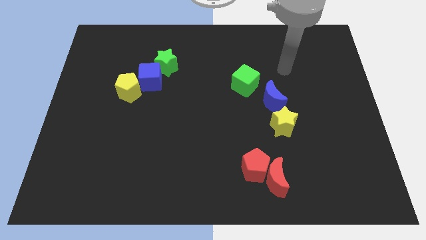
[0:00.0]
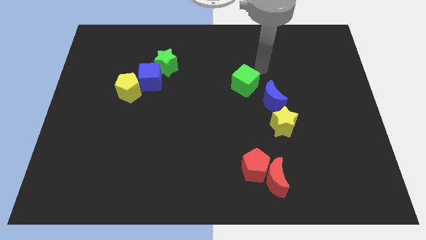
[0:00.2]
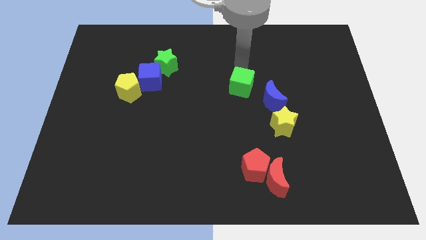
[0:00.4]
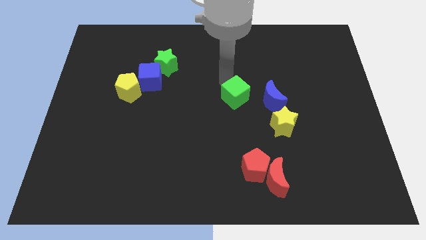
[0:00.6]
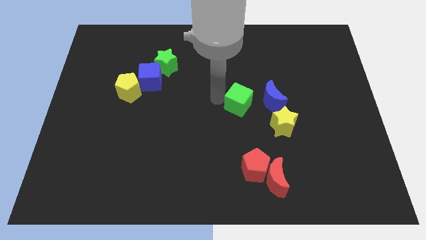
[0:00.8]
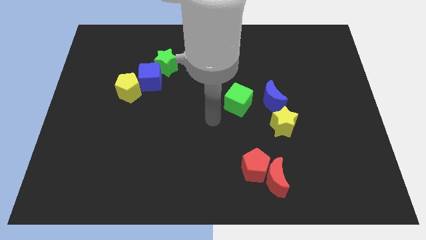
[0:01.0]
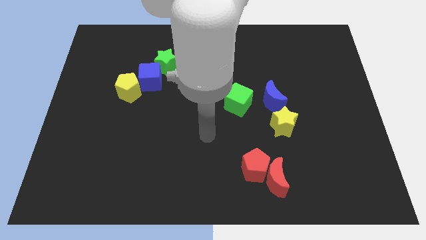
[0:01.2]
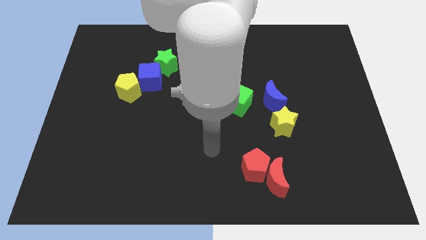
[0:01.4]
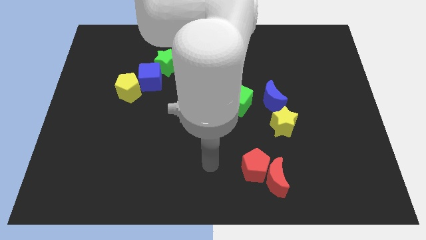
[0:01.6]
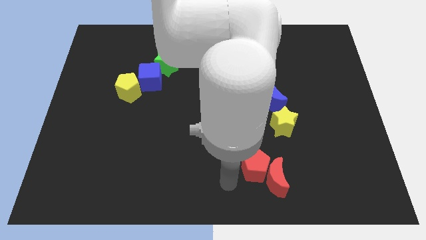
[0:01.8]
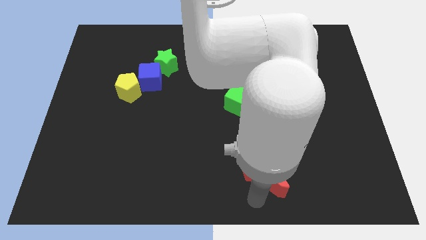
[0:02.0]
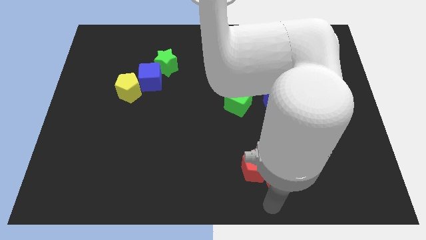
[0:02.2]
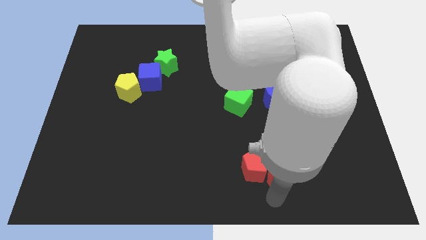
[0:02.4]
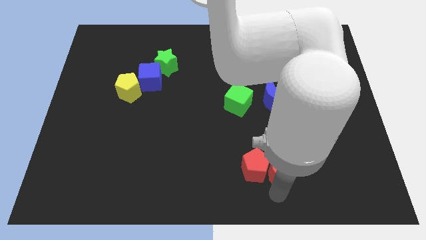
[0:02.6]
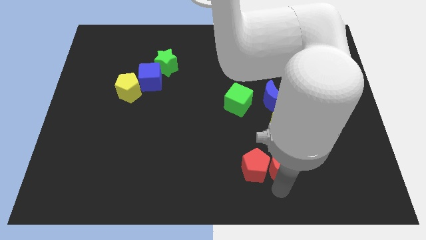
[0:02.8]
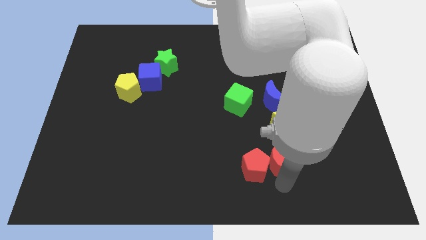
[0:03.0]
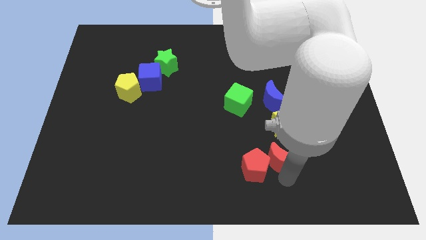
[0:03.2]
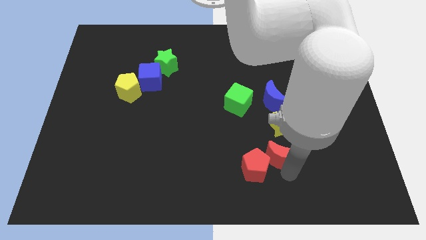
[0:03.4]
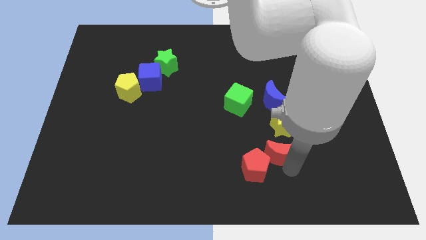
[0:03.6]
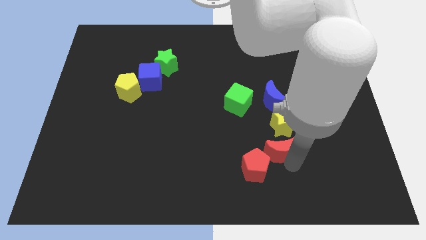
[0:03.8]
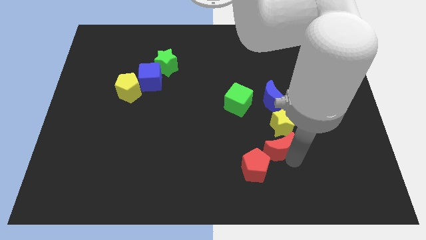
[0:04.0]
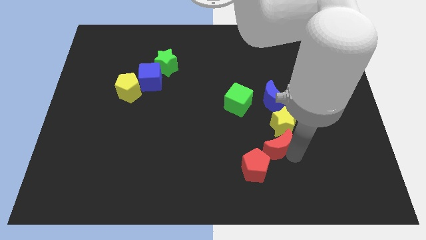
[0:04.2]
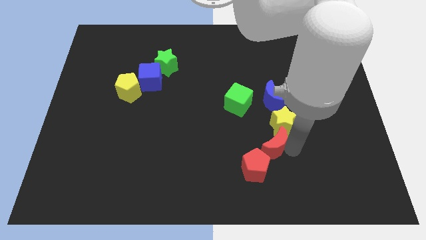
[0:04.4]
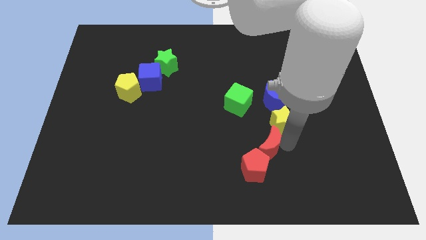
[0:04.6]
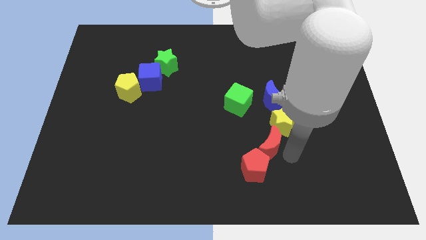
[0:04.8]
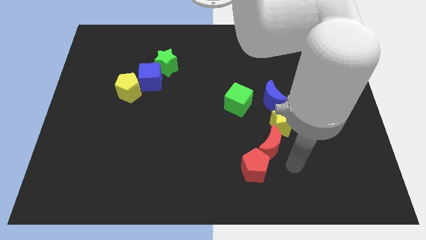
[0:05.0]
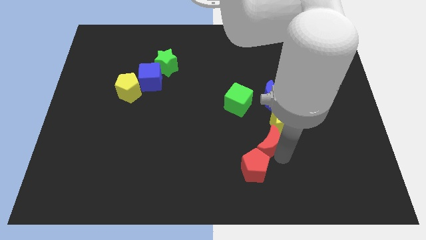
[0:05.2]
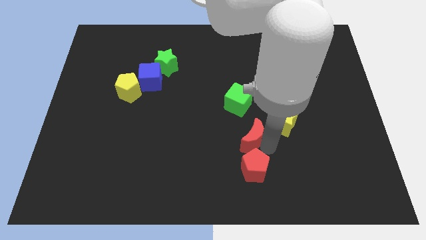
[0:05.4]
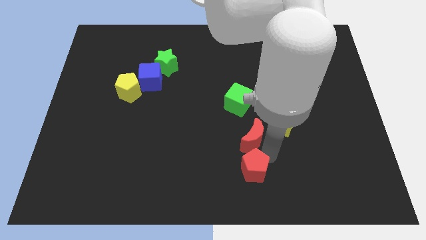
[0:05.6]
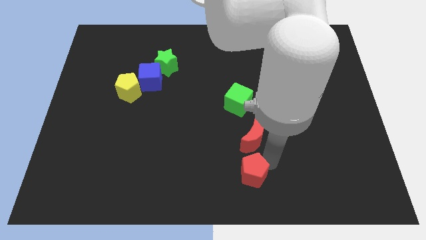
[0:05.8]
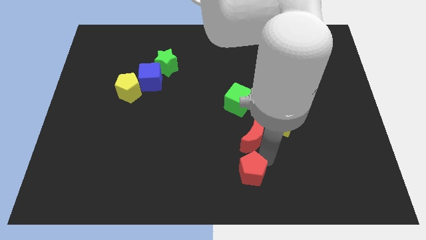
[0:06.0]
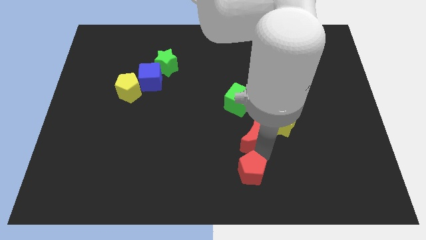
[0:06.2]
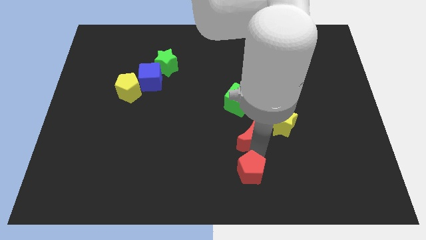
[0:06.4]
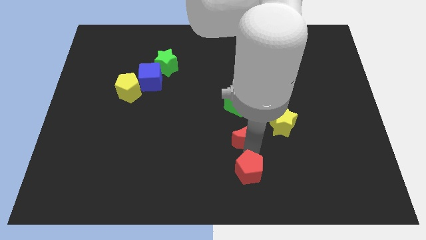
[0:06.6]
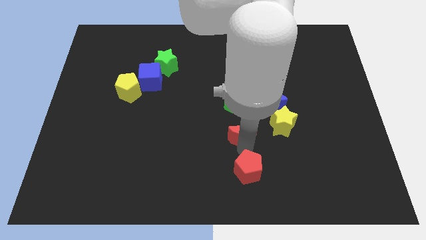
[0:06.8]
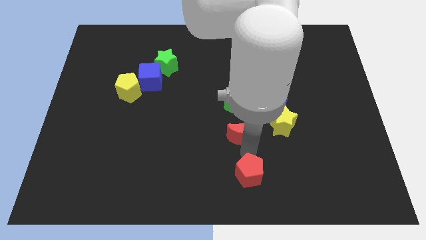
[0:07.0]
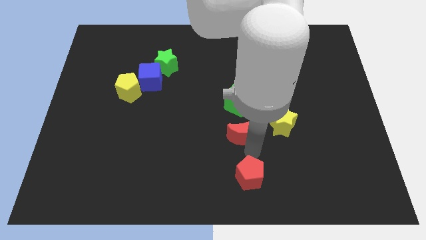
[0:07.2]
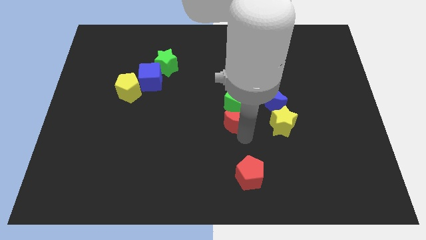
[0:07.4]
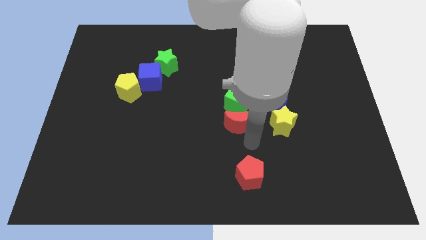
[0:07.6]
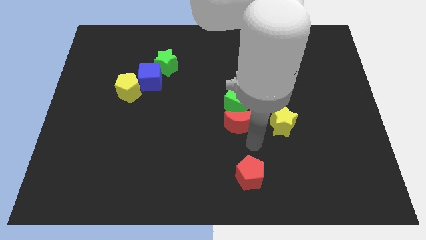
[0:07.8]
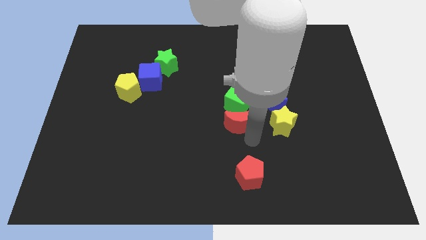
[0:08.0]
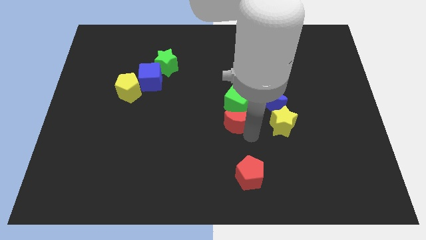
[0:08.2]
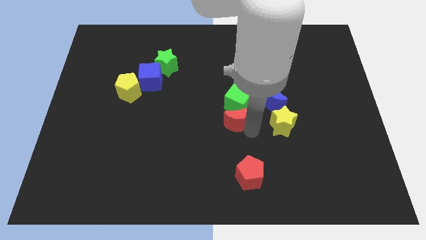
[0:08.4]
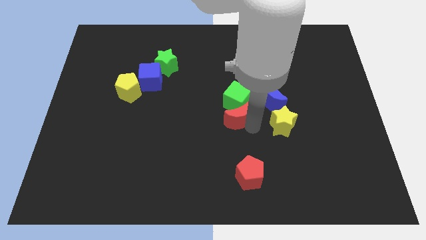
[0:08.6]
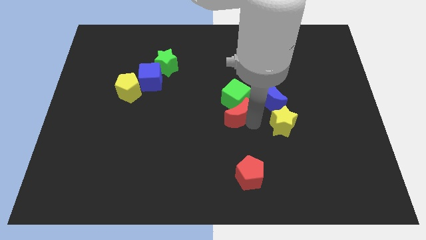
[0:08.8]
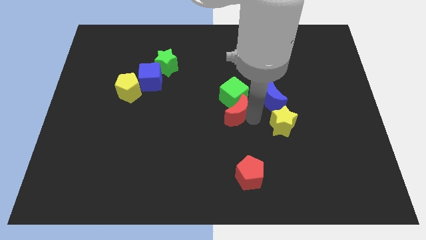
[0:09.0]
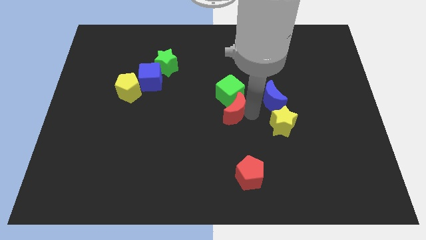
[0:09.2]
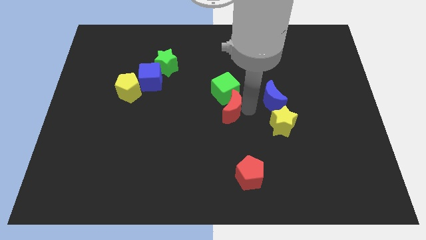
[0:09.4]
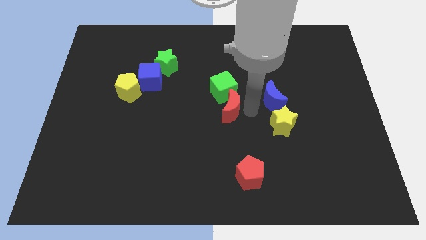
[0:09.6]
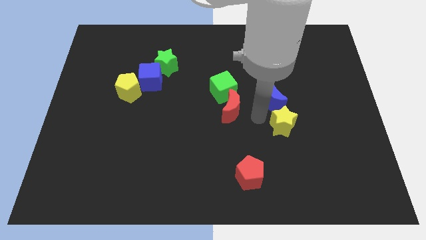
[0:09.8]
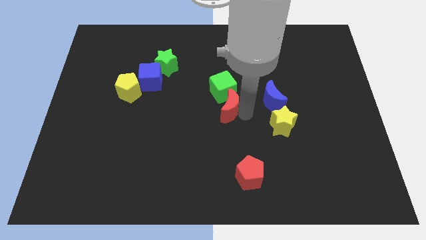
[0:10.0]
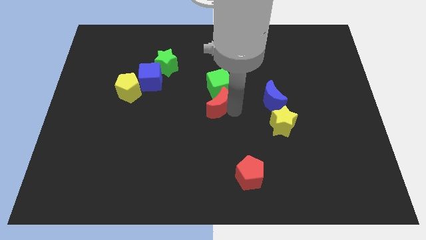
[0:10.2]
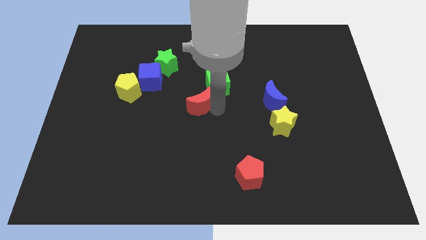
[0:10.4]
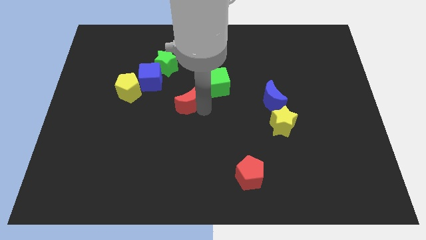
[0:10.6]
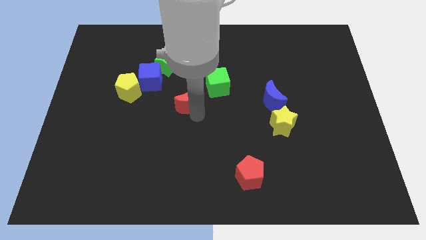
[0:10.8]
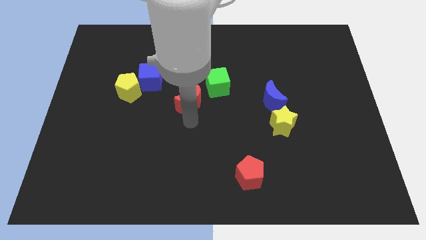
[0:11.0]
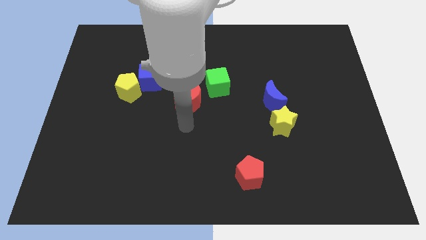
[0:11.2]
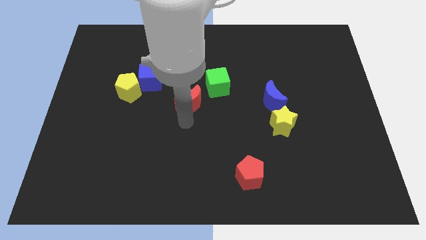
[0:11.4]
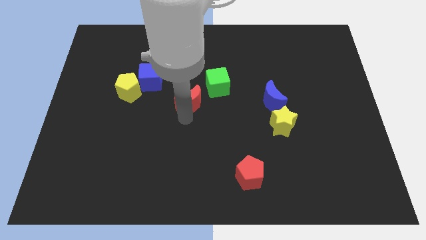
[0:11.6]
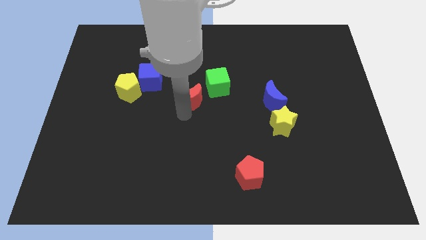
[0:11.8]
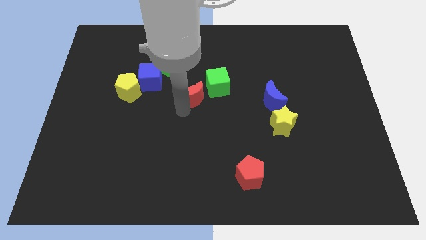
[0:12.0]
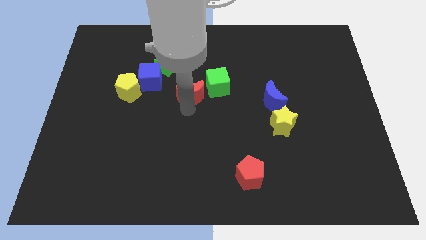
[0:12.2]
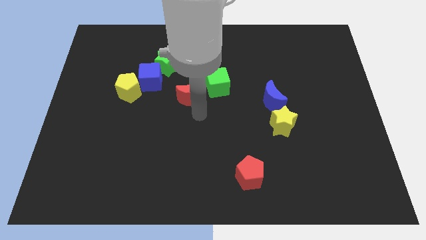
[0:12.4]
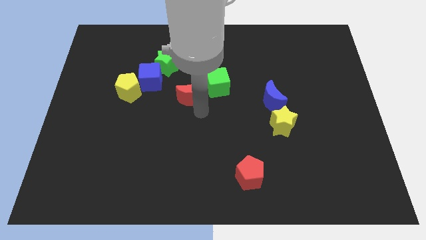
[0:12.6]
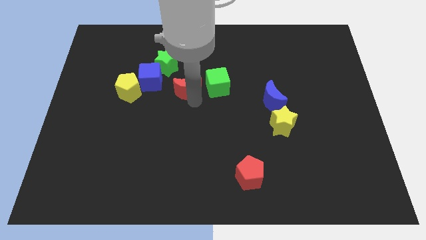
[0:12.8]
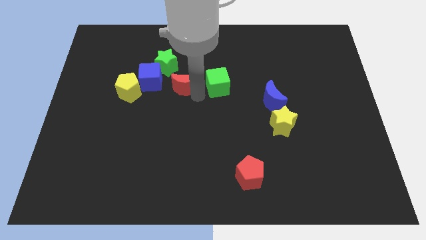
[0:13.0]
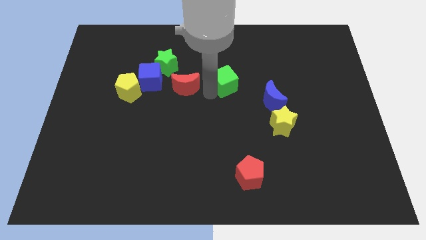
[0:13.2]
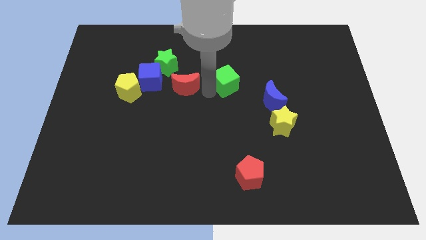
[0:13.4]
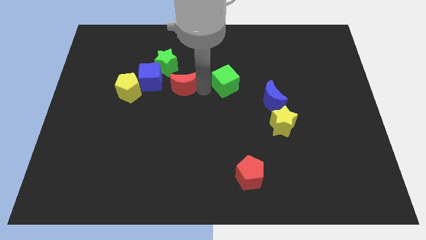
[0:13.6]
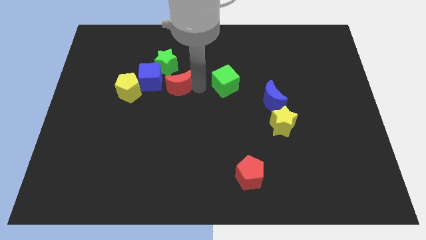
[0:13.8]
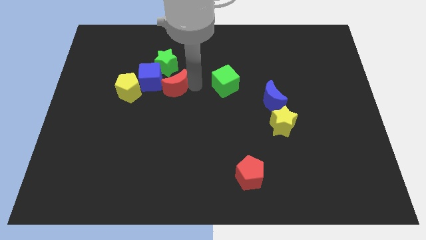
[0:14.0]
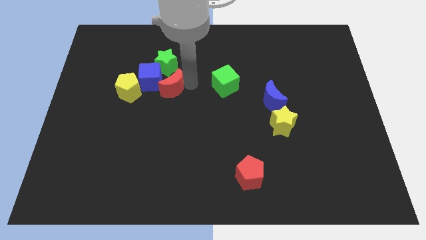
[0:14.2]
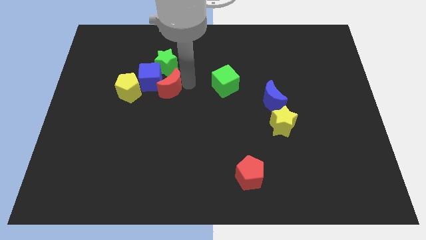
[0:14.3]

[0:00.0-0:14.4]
move the red moon towards the blue cube
